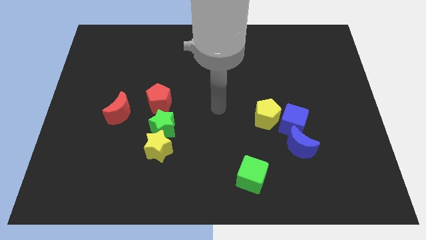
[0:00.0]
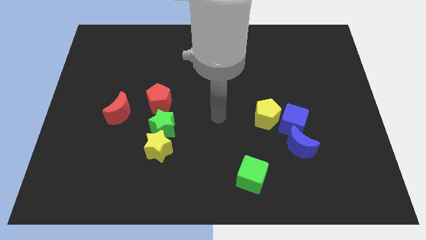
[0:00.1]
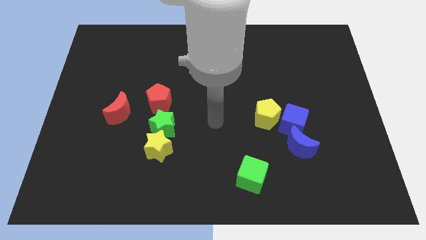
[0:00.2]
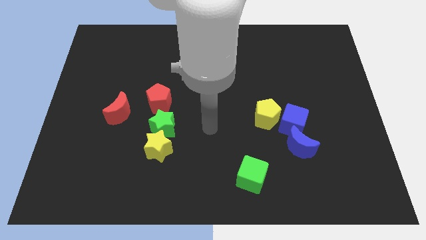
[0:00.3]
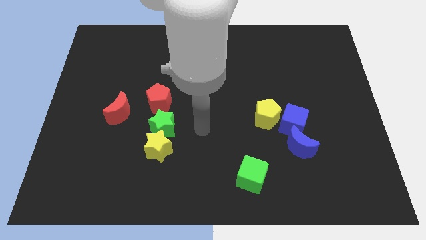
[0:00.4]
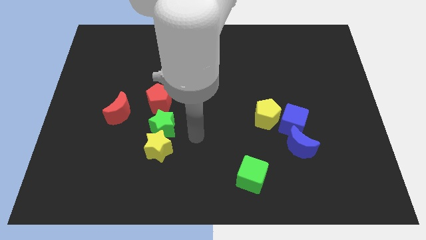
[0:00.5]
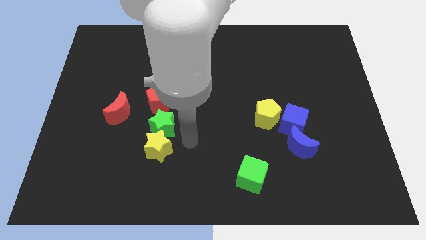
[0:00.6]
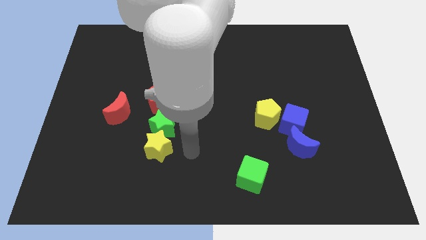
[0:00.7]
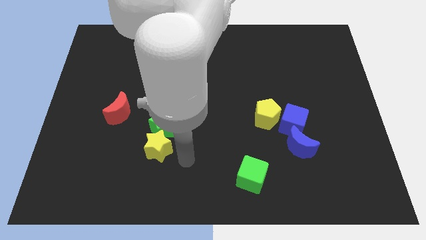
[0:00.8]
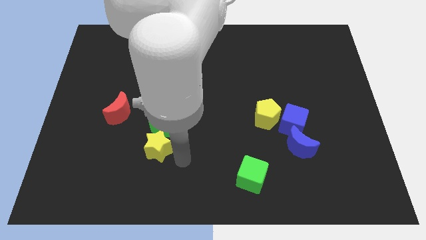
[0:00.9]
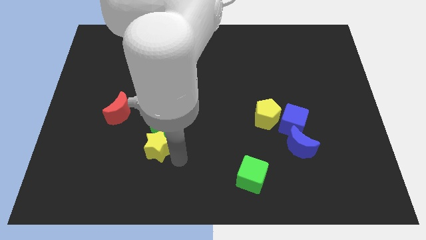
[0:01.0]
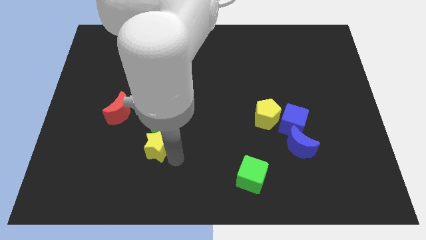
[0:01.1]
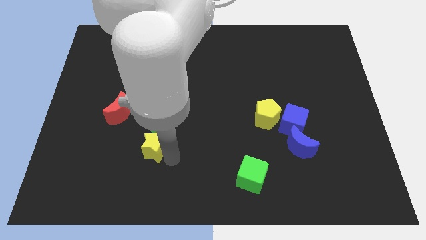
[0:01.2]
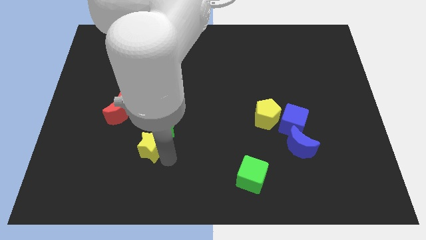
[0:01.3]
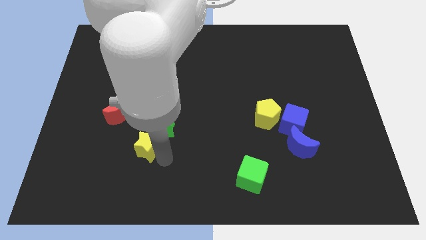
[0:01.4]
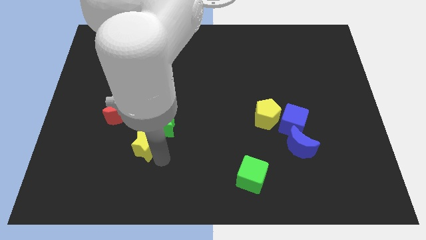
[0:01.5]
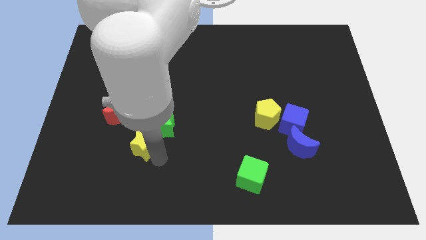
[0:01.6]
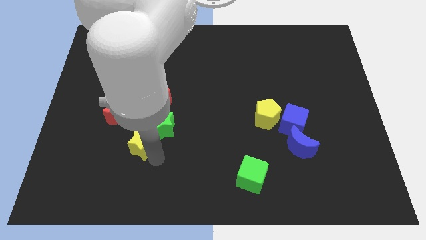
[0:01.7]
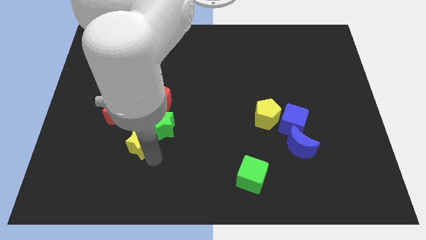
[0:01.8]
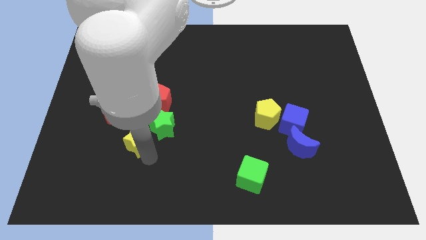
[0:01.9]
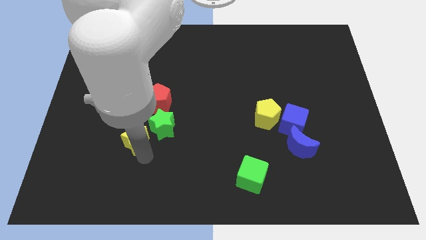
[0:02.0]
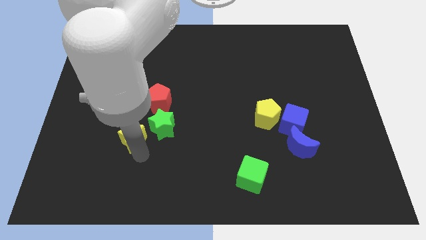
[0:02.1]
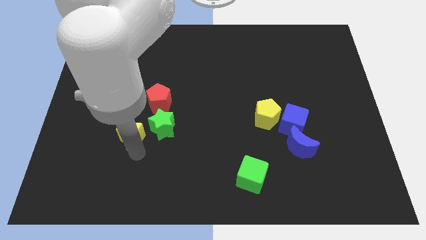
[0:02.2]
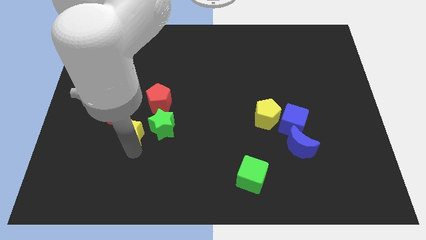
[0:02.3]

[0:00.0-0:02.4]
push the yellow star somewhat up and left diagonally

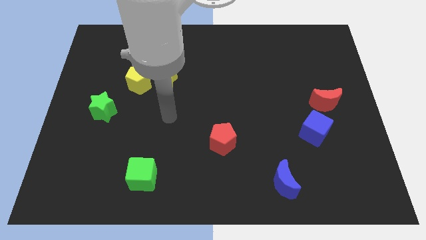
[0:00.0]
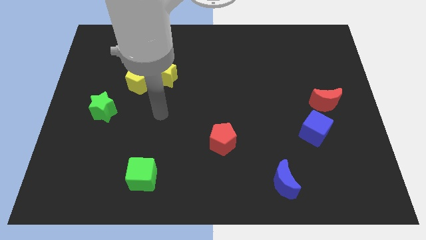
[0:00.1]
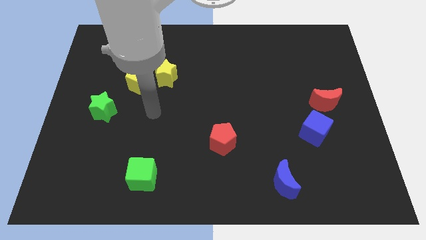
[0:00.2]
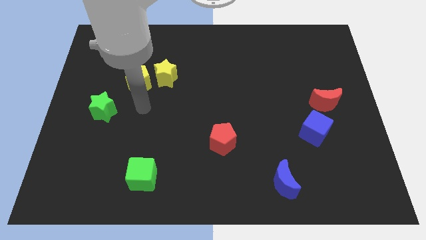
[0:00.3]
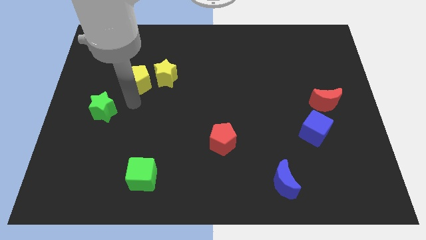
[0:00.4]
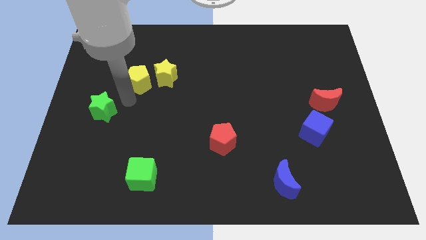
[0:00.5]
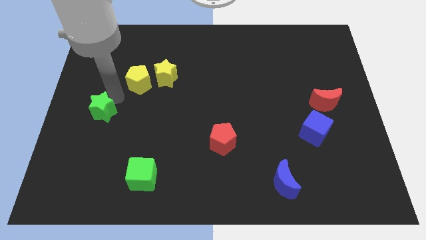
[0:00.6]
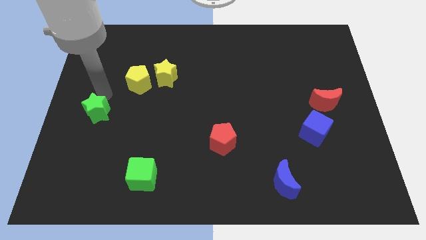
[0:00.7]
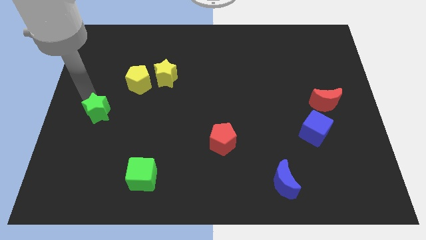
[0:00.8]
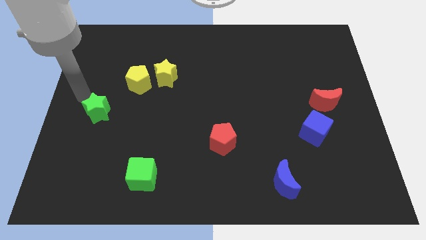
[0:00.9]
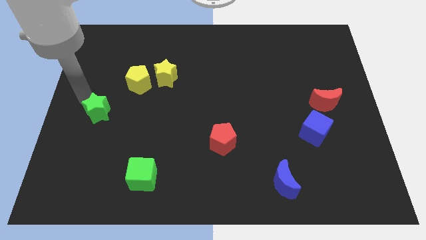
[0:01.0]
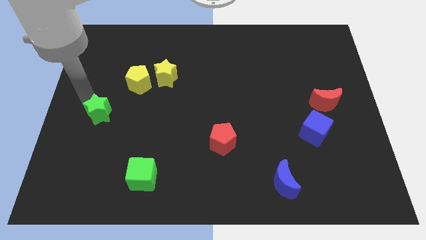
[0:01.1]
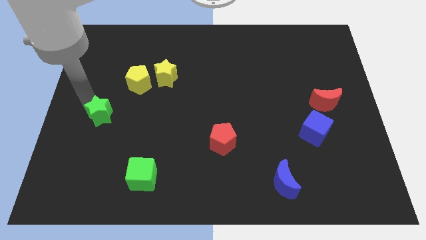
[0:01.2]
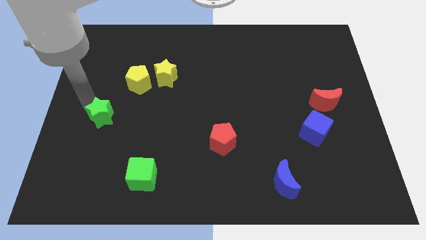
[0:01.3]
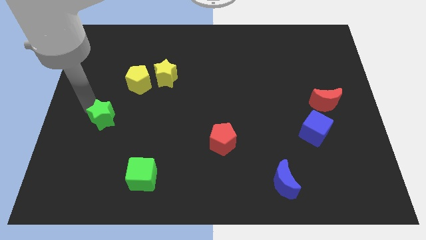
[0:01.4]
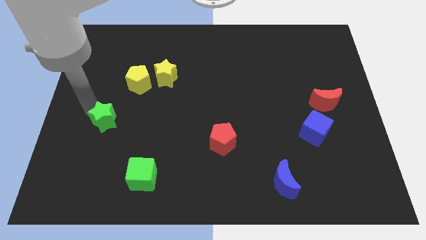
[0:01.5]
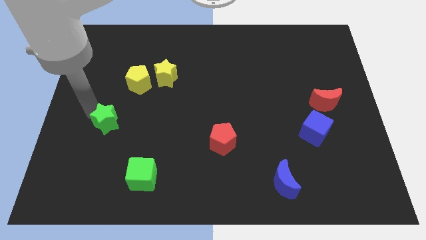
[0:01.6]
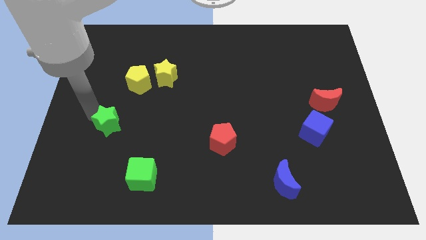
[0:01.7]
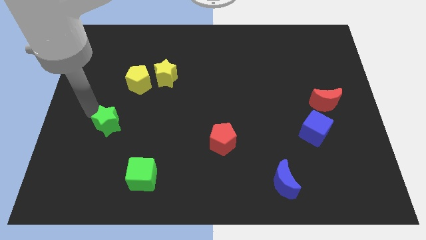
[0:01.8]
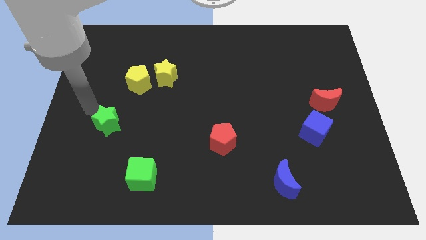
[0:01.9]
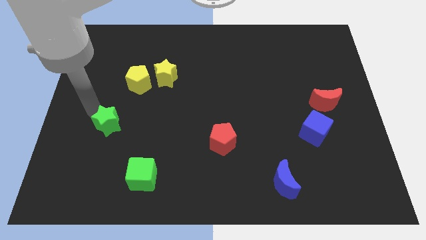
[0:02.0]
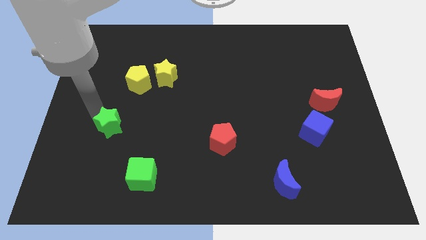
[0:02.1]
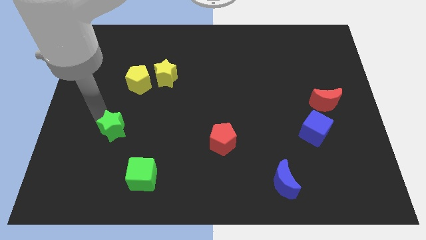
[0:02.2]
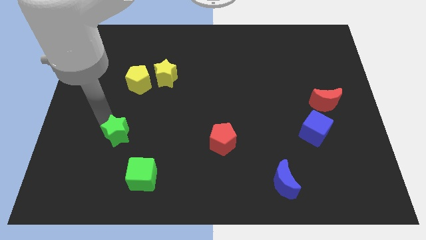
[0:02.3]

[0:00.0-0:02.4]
push the green star downwards and then to the right a little bit

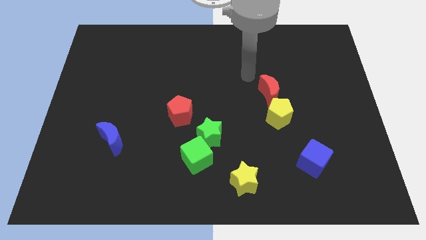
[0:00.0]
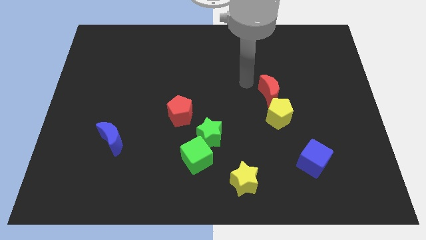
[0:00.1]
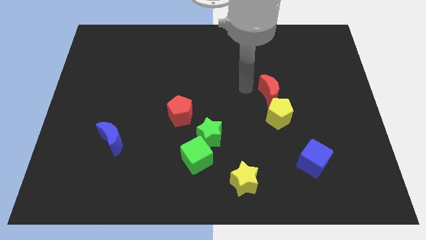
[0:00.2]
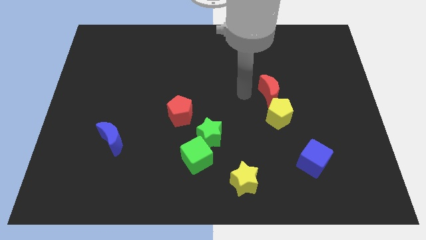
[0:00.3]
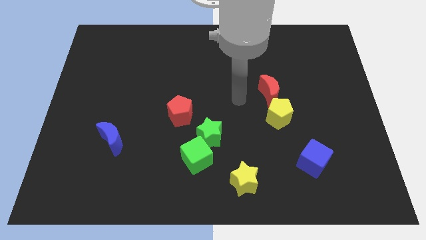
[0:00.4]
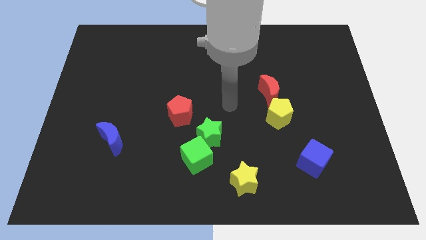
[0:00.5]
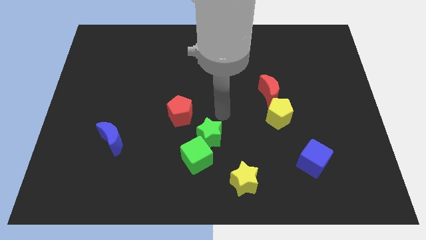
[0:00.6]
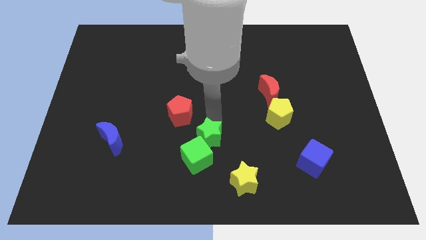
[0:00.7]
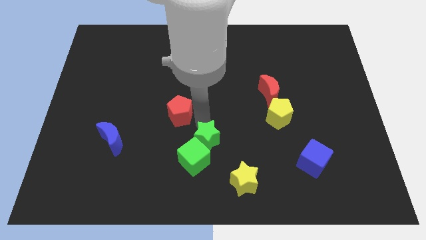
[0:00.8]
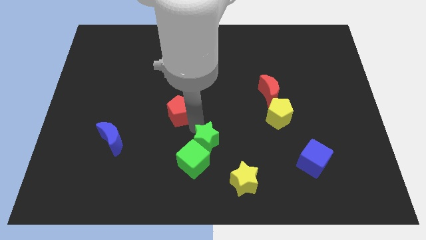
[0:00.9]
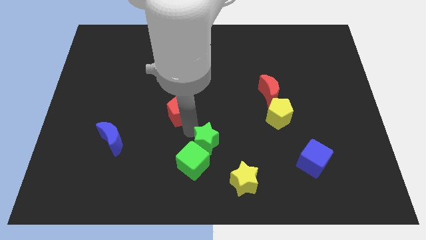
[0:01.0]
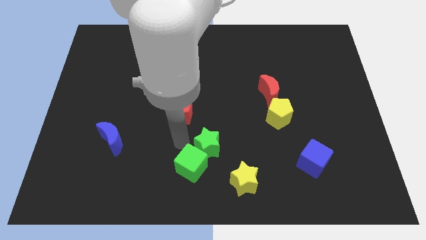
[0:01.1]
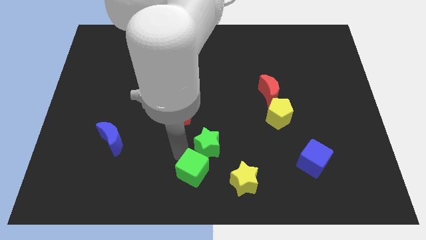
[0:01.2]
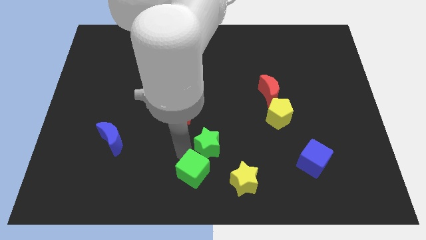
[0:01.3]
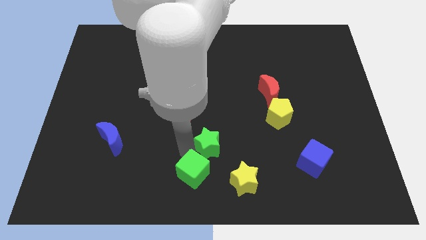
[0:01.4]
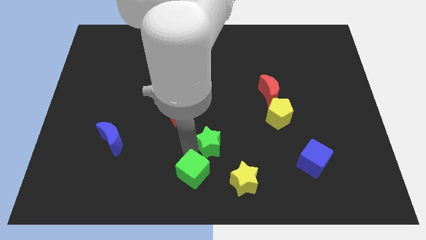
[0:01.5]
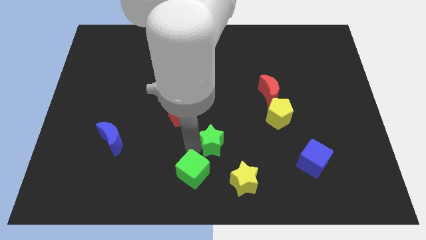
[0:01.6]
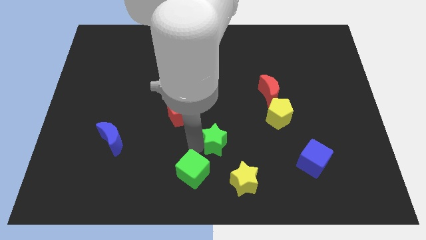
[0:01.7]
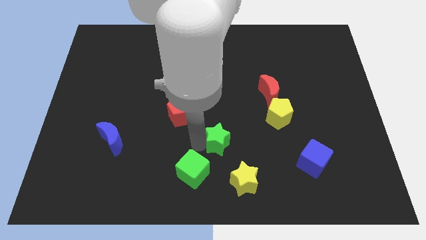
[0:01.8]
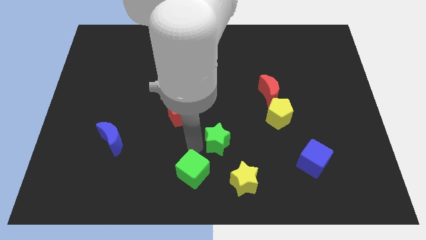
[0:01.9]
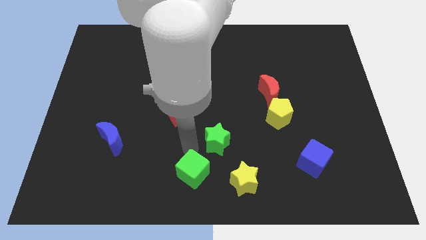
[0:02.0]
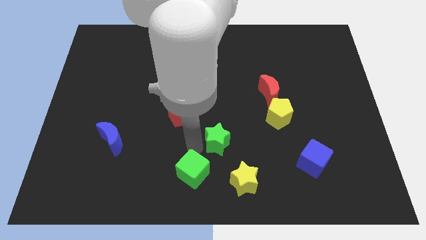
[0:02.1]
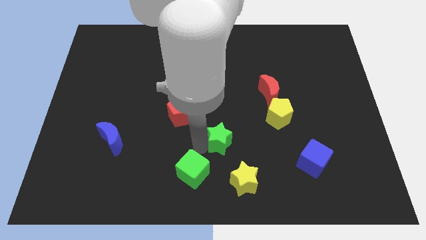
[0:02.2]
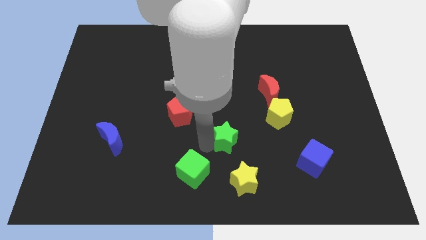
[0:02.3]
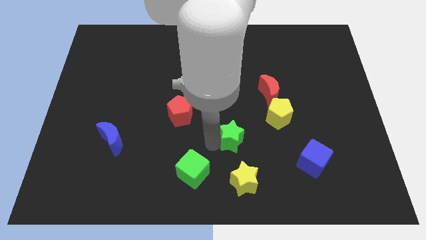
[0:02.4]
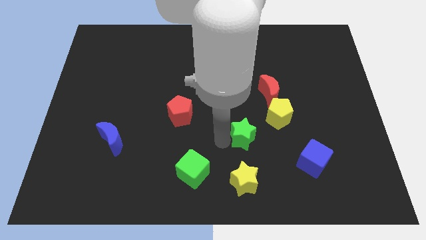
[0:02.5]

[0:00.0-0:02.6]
push the green star right a bit

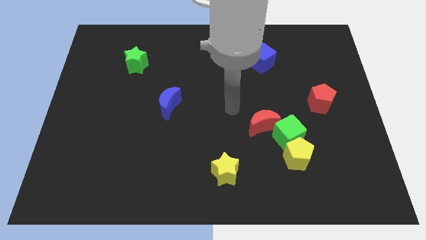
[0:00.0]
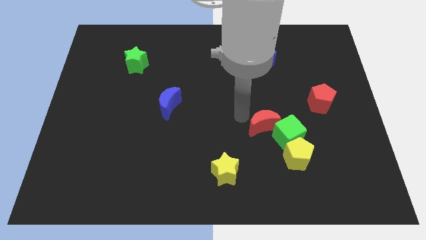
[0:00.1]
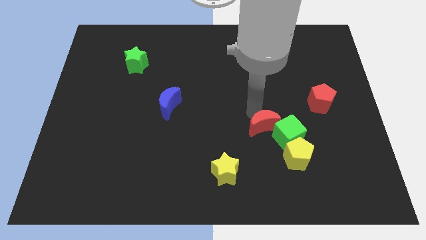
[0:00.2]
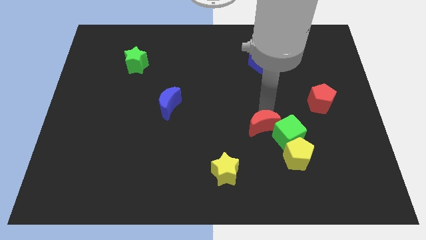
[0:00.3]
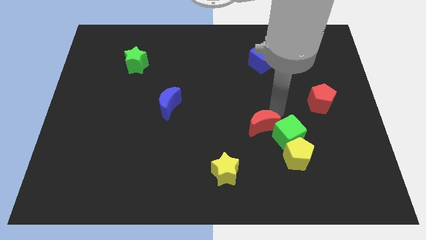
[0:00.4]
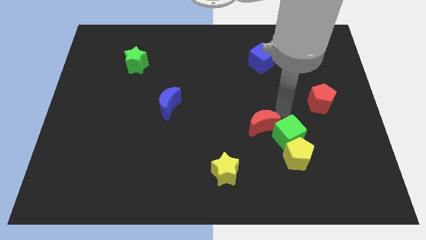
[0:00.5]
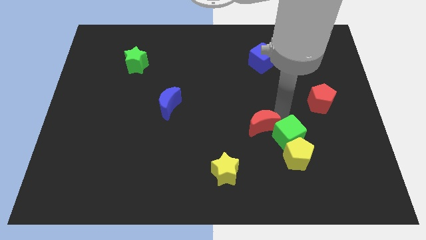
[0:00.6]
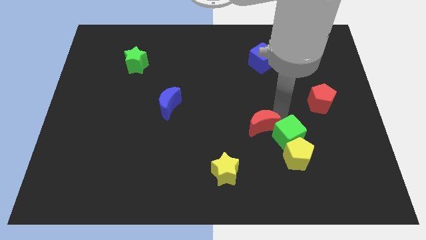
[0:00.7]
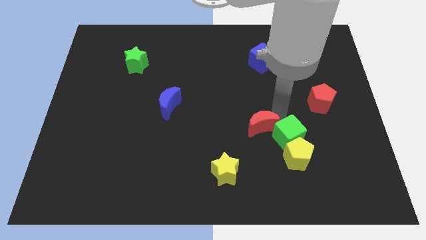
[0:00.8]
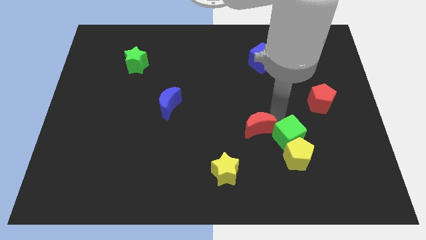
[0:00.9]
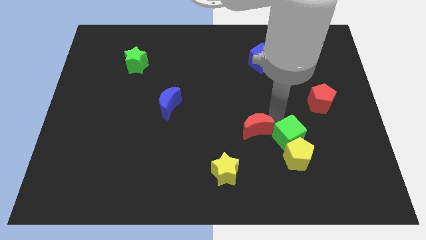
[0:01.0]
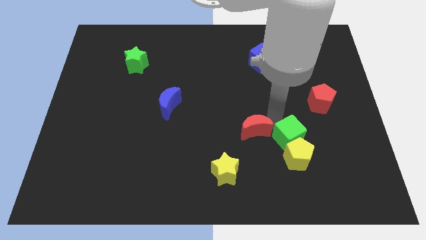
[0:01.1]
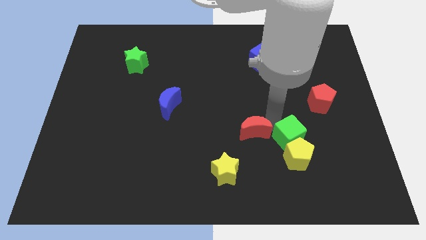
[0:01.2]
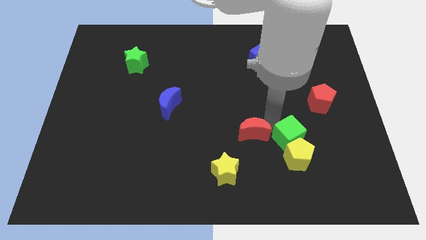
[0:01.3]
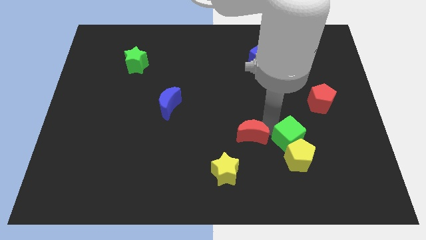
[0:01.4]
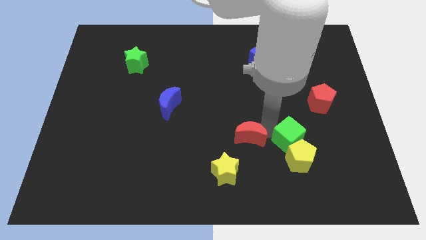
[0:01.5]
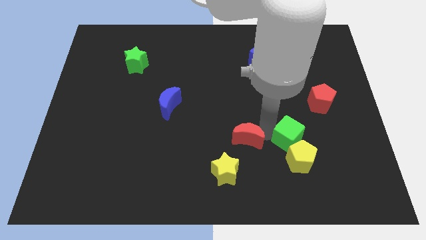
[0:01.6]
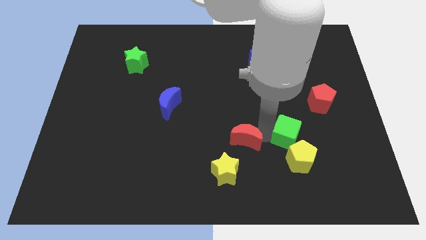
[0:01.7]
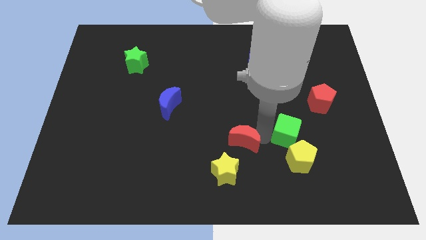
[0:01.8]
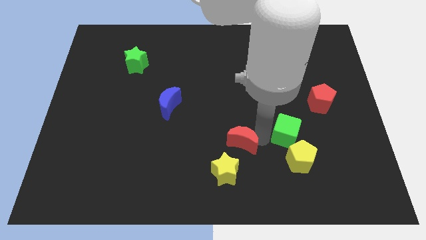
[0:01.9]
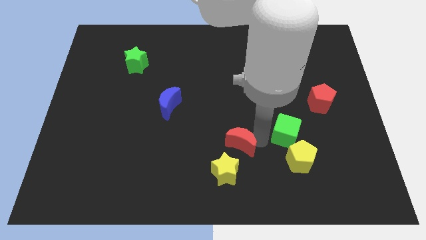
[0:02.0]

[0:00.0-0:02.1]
move the red moon downwards and left slightly
